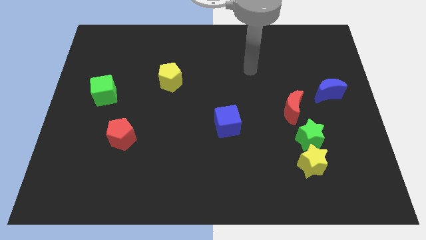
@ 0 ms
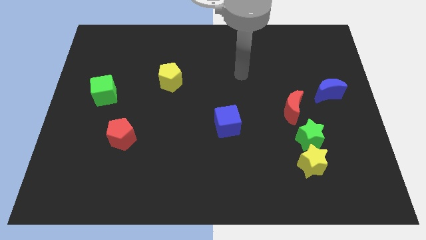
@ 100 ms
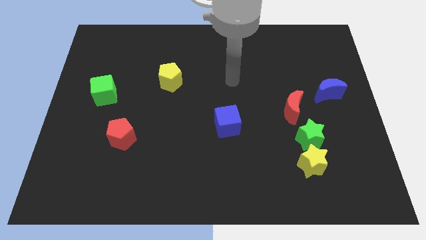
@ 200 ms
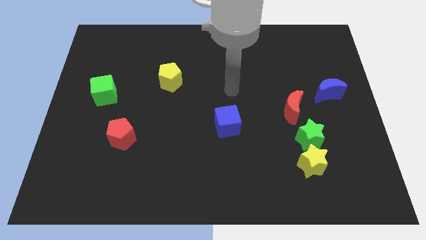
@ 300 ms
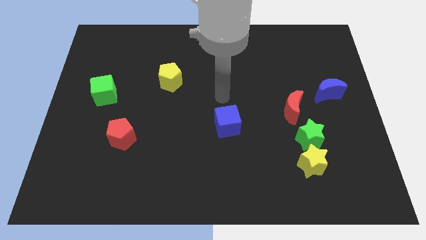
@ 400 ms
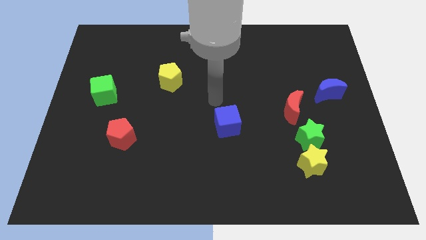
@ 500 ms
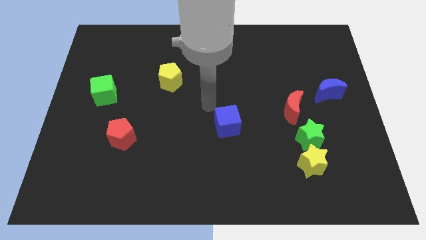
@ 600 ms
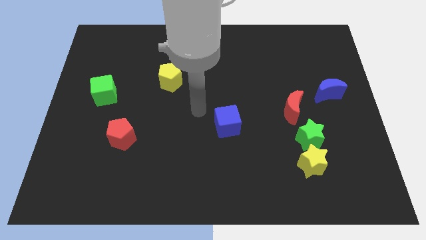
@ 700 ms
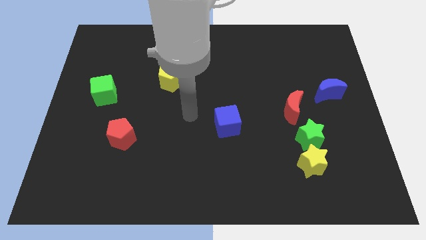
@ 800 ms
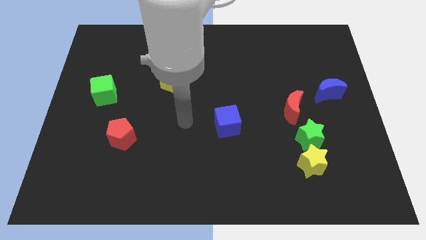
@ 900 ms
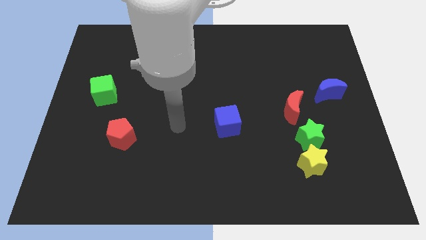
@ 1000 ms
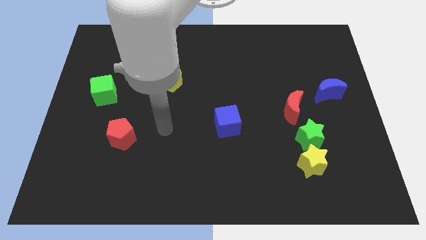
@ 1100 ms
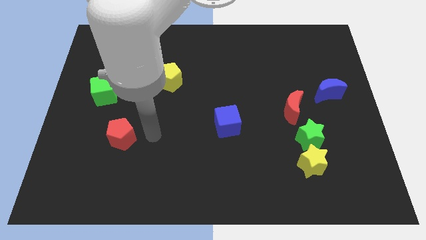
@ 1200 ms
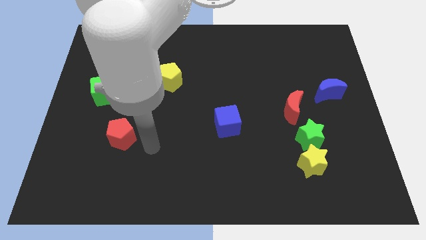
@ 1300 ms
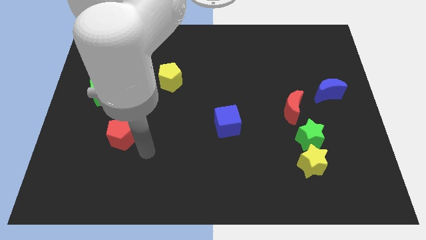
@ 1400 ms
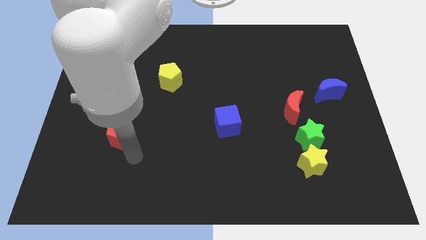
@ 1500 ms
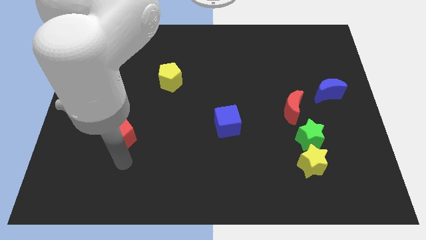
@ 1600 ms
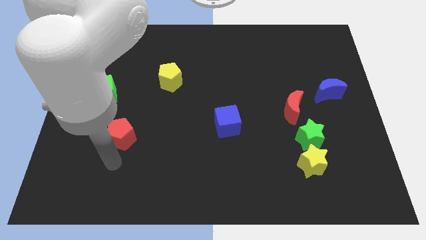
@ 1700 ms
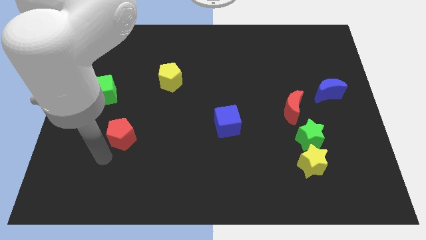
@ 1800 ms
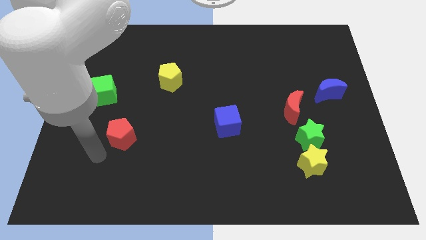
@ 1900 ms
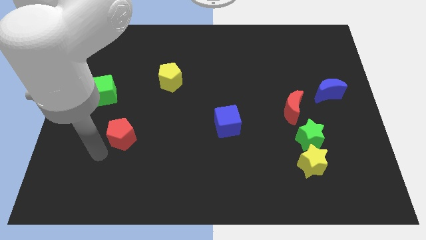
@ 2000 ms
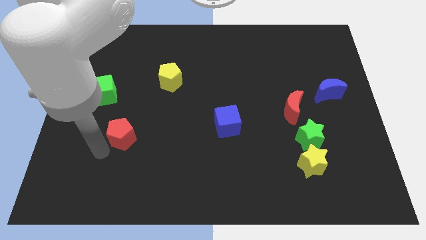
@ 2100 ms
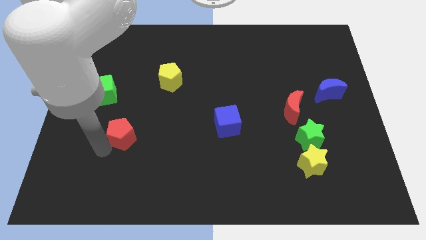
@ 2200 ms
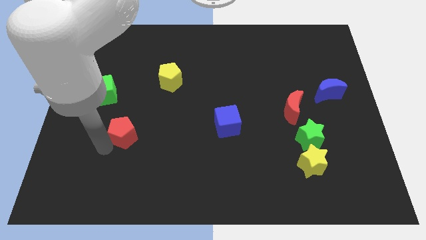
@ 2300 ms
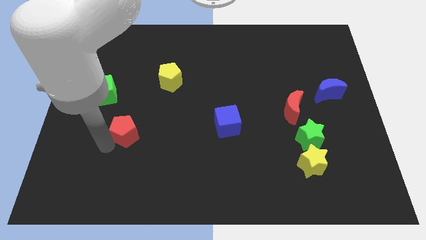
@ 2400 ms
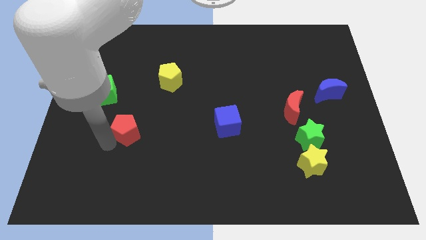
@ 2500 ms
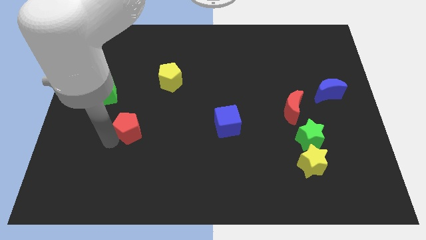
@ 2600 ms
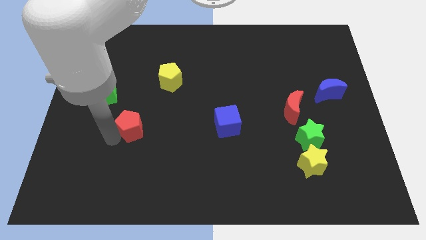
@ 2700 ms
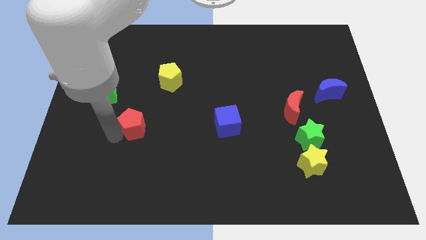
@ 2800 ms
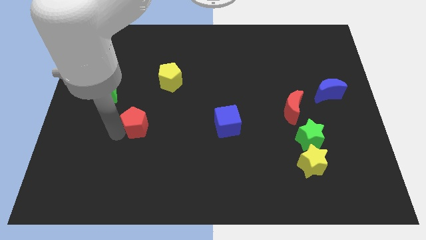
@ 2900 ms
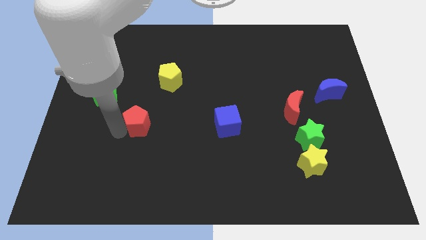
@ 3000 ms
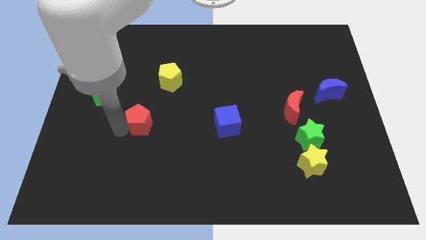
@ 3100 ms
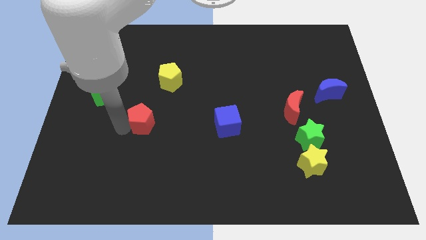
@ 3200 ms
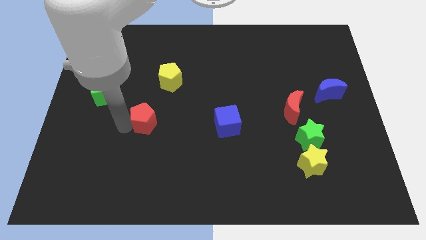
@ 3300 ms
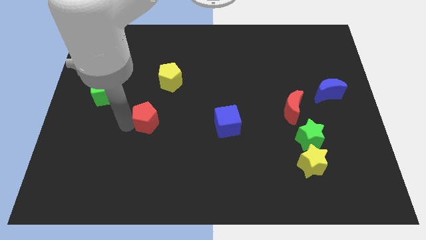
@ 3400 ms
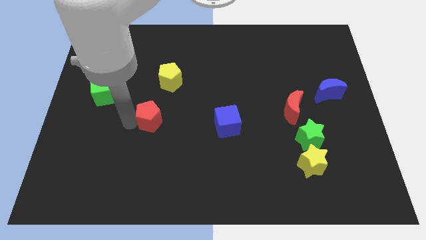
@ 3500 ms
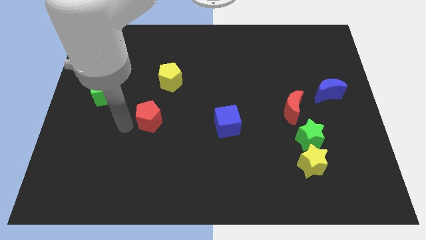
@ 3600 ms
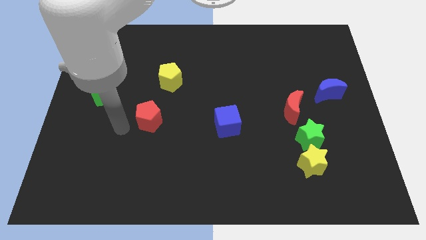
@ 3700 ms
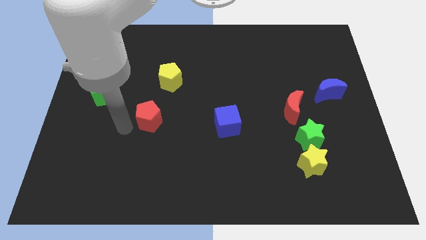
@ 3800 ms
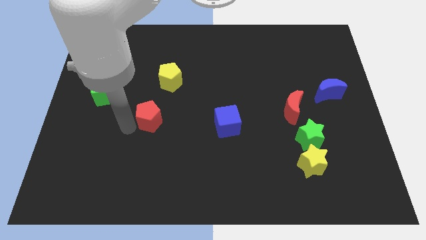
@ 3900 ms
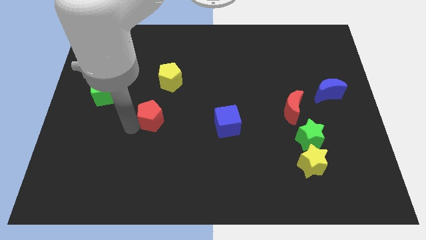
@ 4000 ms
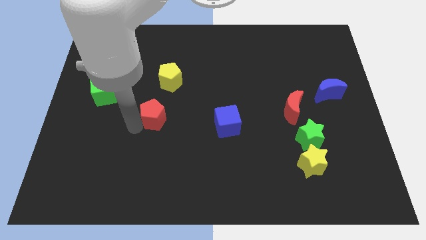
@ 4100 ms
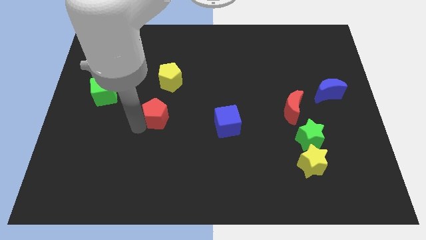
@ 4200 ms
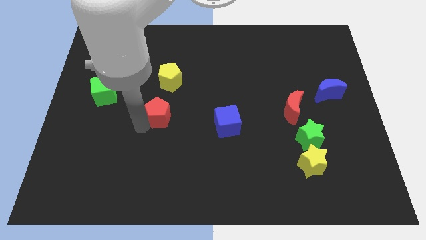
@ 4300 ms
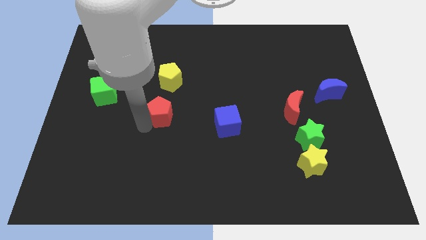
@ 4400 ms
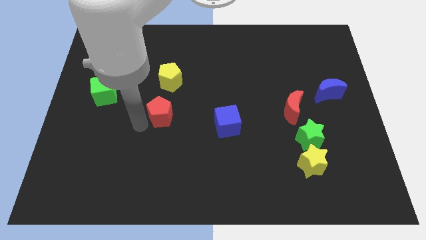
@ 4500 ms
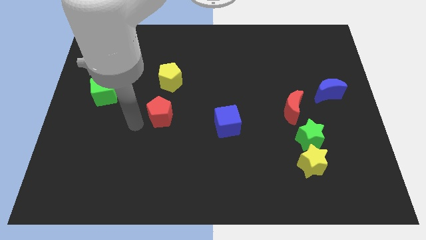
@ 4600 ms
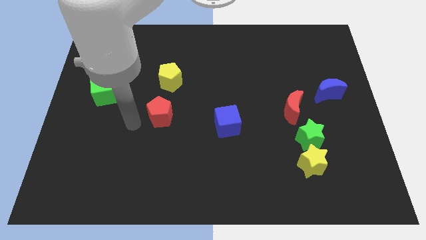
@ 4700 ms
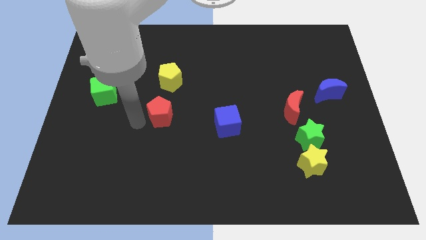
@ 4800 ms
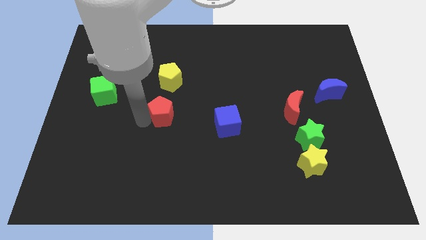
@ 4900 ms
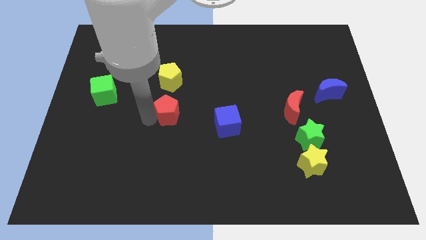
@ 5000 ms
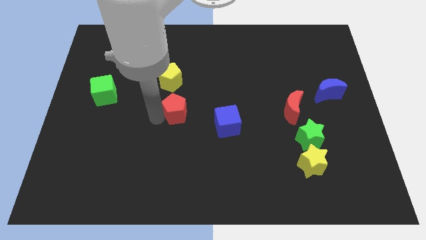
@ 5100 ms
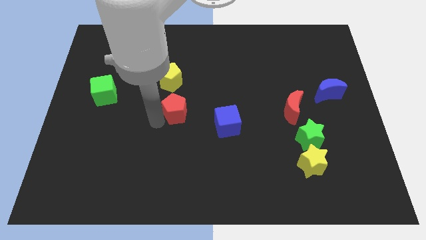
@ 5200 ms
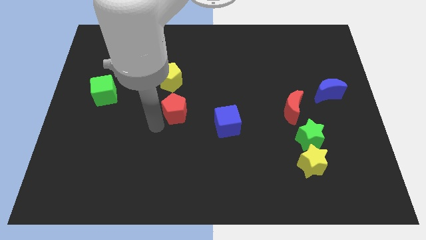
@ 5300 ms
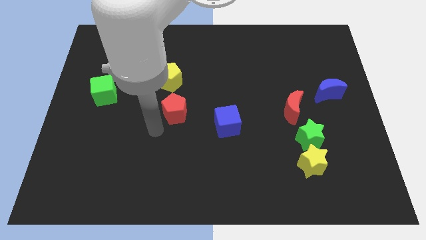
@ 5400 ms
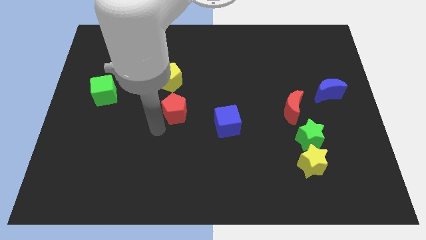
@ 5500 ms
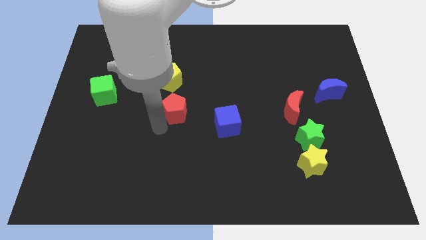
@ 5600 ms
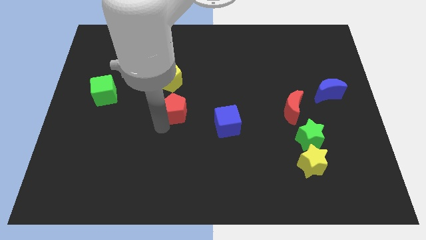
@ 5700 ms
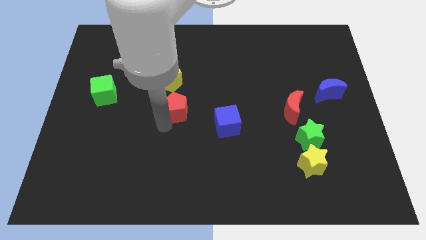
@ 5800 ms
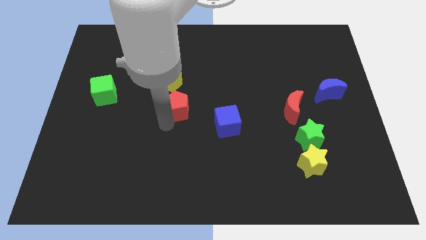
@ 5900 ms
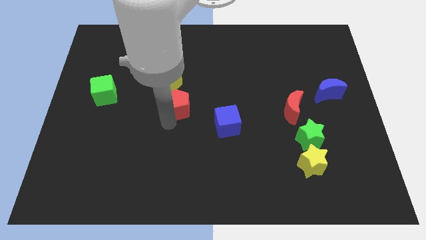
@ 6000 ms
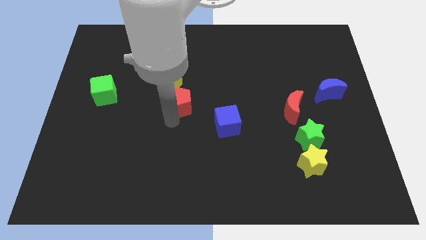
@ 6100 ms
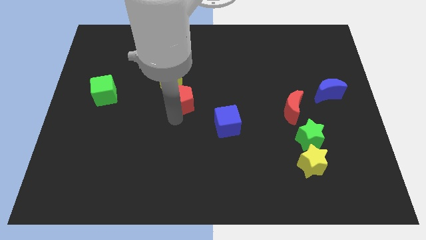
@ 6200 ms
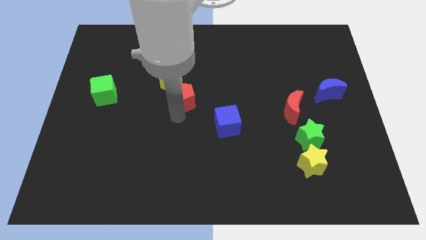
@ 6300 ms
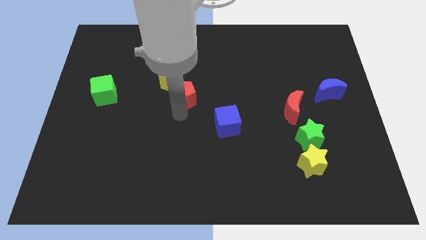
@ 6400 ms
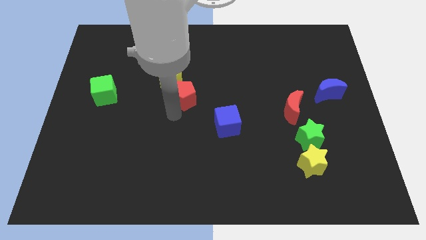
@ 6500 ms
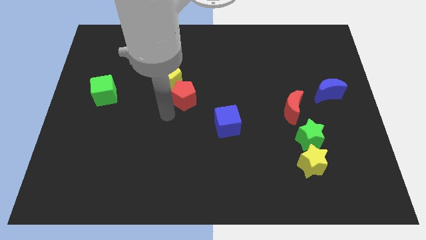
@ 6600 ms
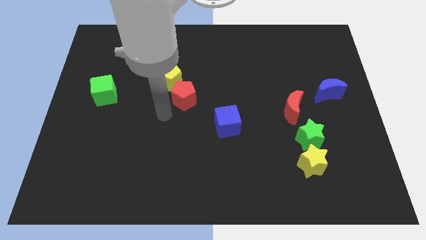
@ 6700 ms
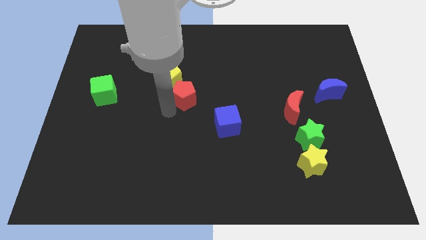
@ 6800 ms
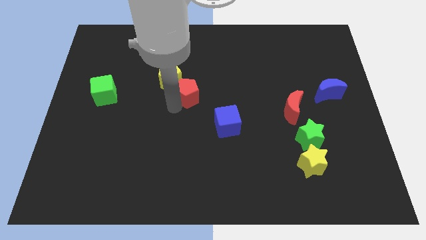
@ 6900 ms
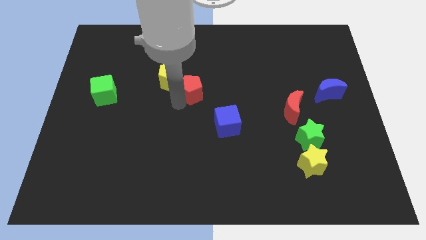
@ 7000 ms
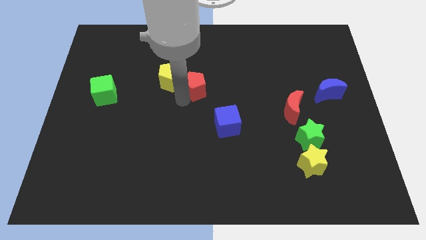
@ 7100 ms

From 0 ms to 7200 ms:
slide the red pentagon up and then right

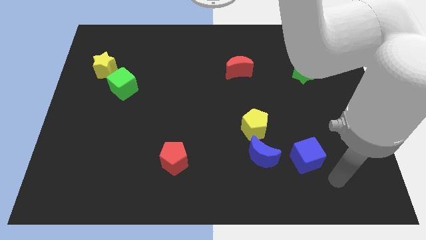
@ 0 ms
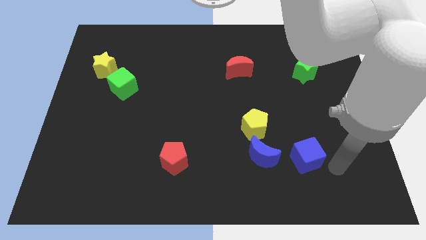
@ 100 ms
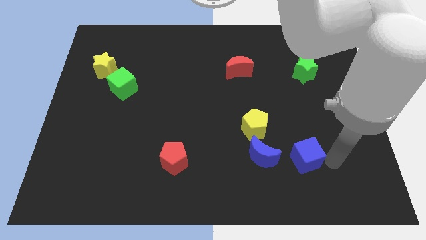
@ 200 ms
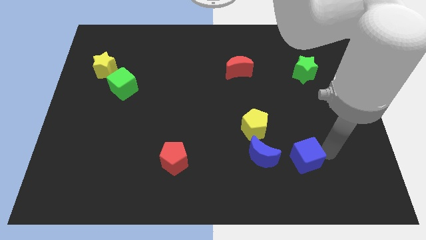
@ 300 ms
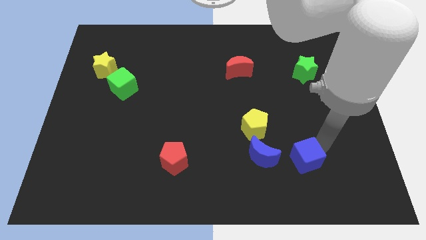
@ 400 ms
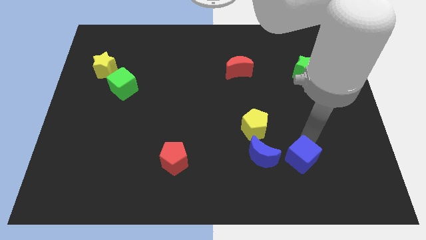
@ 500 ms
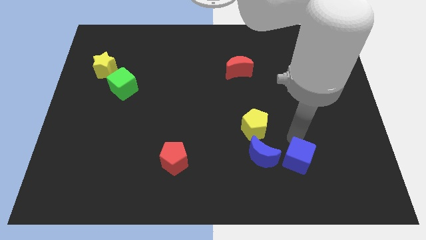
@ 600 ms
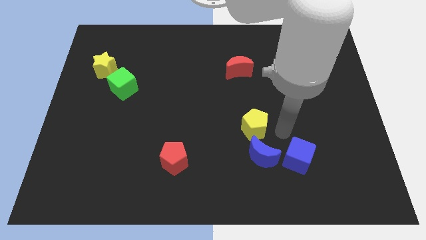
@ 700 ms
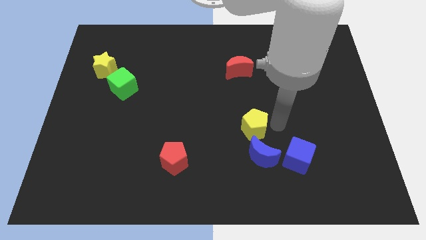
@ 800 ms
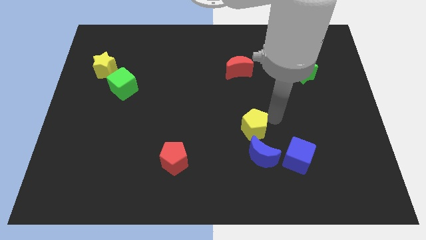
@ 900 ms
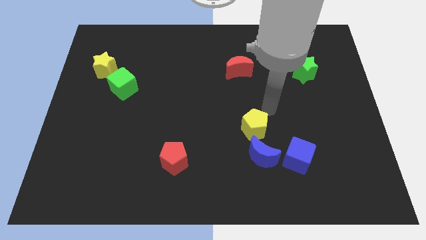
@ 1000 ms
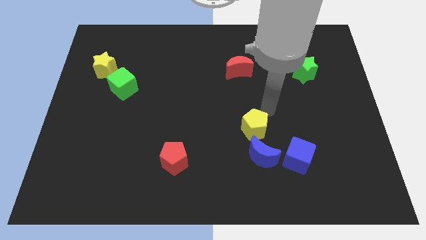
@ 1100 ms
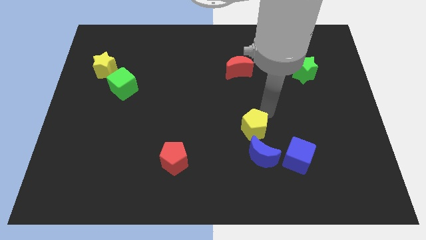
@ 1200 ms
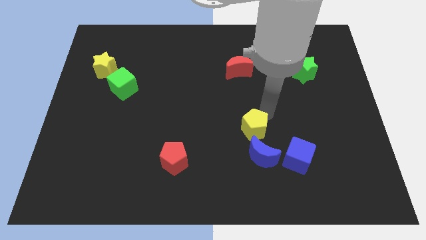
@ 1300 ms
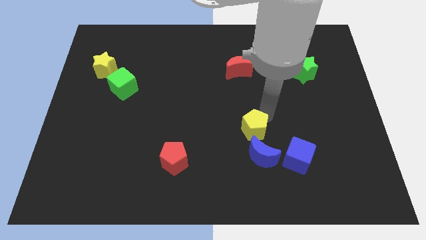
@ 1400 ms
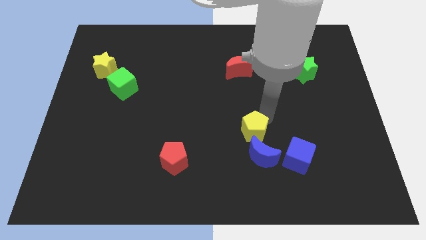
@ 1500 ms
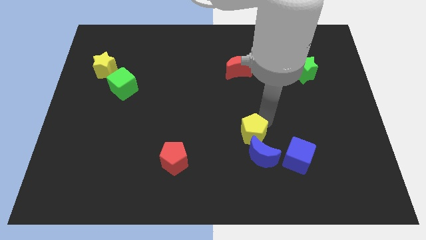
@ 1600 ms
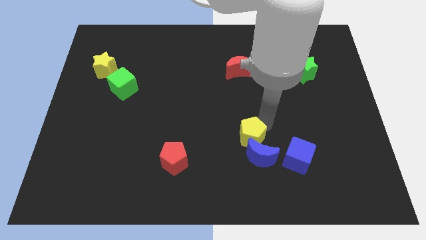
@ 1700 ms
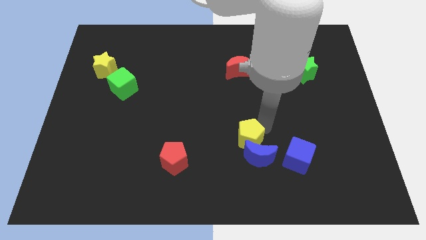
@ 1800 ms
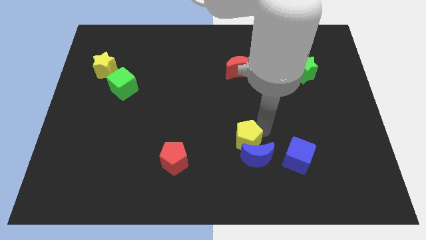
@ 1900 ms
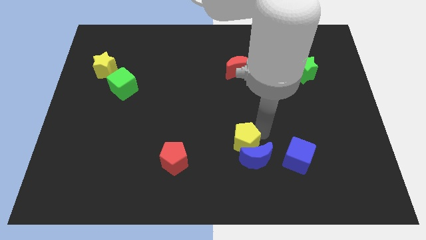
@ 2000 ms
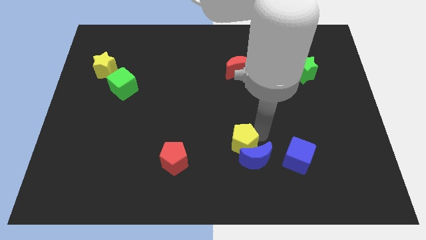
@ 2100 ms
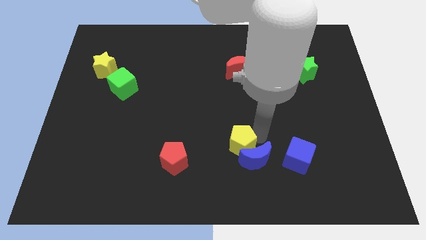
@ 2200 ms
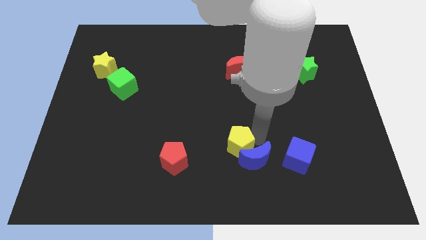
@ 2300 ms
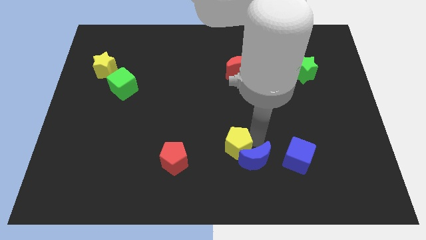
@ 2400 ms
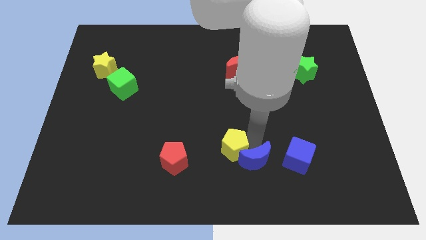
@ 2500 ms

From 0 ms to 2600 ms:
slightly push the yellow pentagon down and left diagonally
